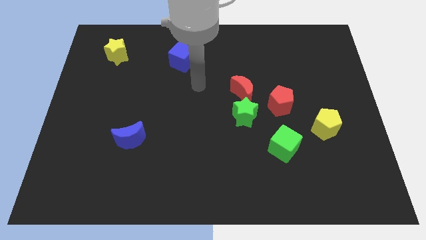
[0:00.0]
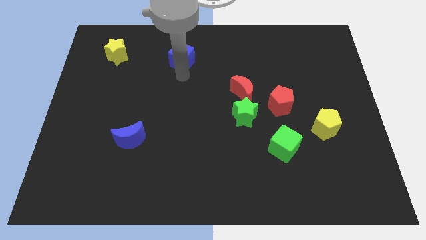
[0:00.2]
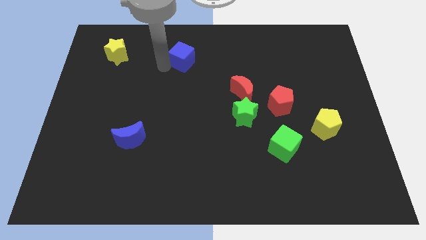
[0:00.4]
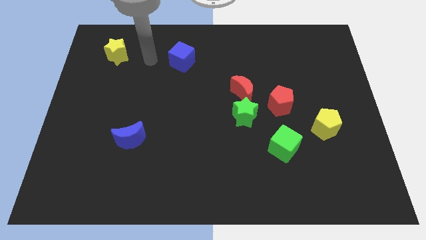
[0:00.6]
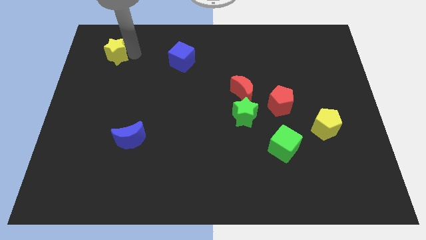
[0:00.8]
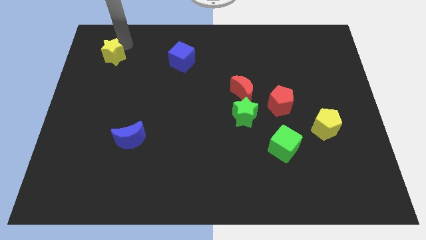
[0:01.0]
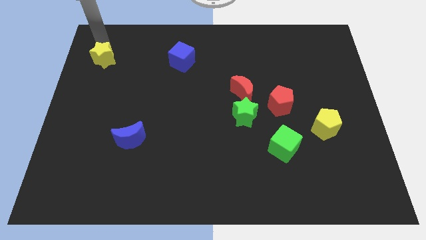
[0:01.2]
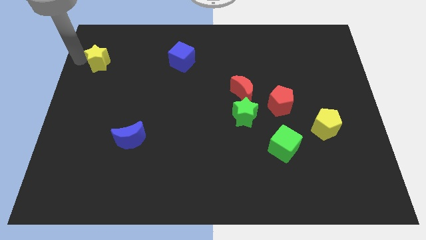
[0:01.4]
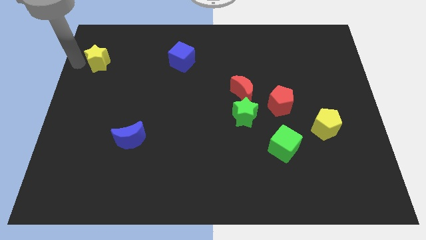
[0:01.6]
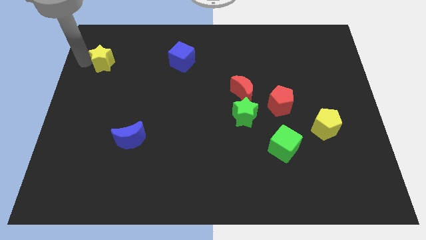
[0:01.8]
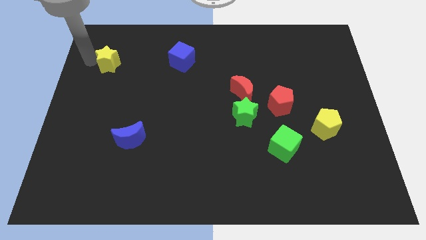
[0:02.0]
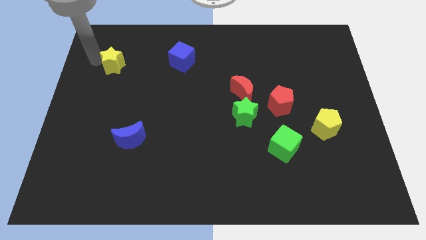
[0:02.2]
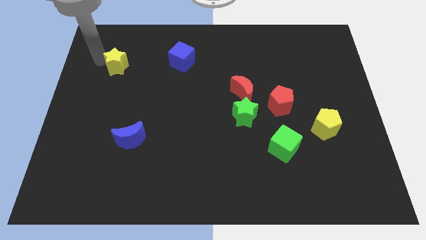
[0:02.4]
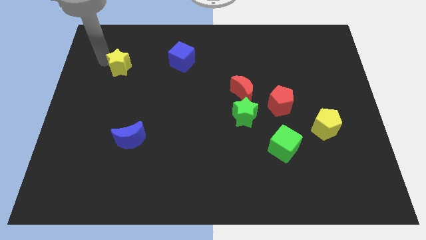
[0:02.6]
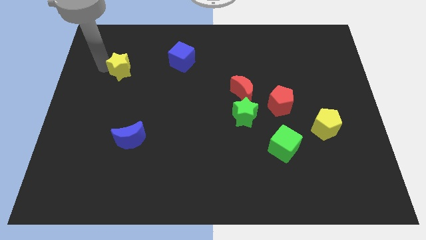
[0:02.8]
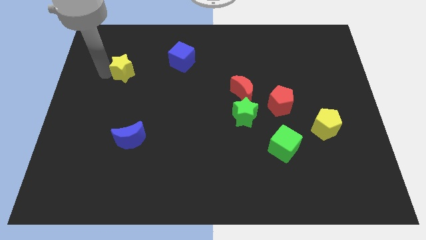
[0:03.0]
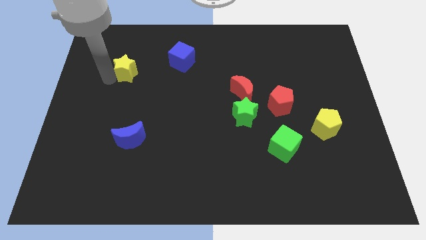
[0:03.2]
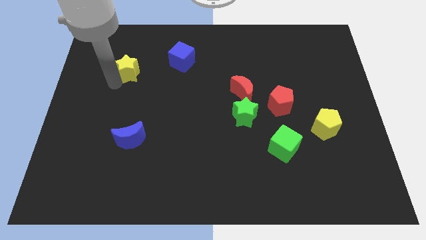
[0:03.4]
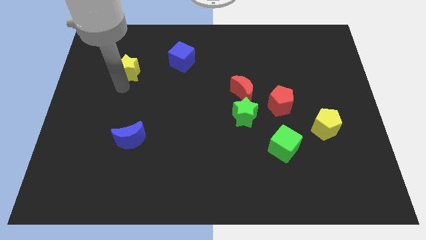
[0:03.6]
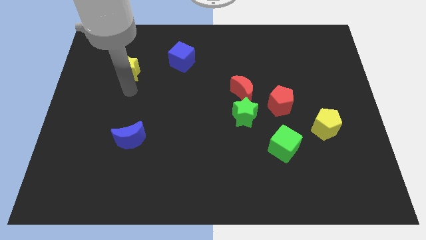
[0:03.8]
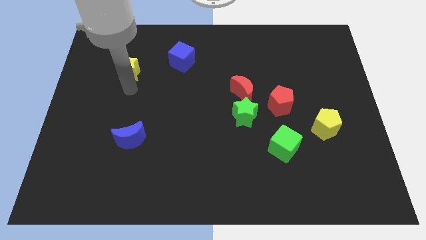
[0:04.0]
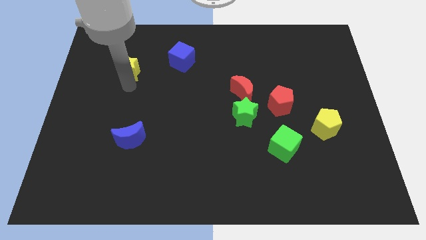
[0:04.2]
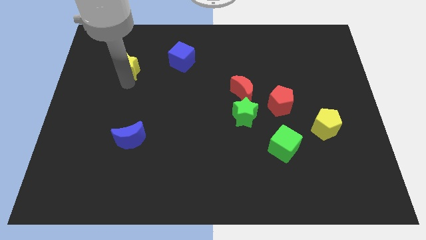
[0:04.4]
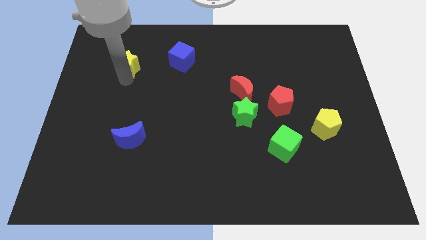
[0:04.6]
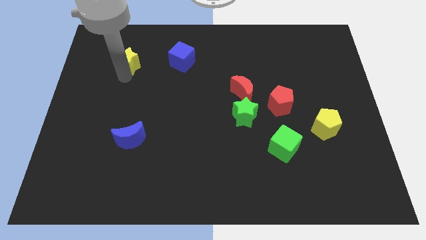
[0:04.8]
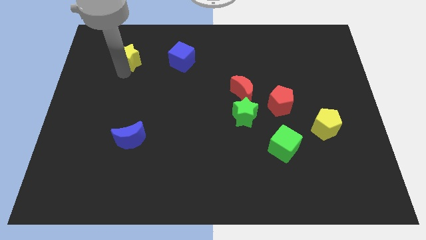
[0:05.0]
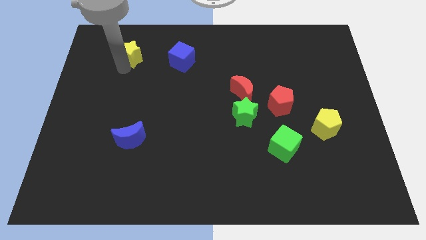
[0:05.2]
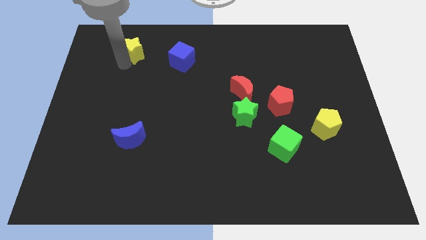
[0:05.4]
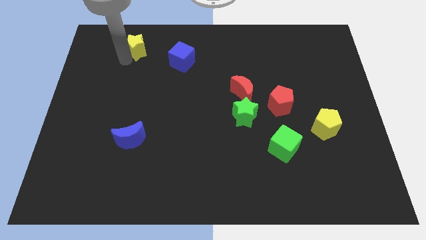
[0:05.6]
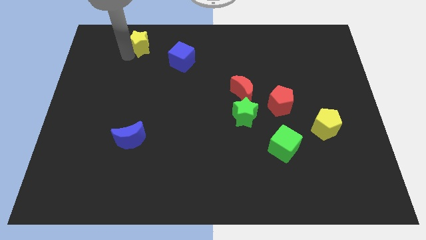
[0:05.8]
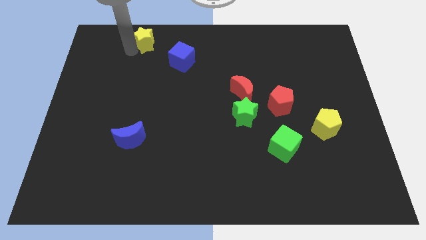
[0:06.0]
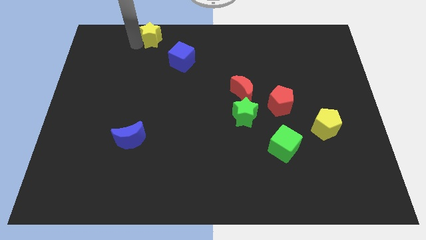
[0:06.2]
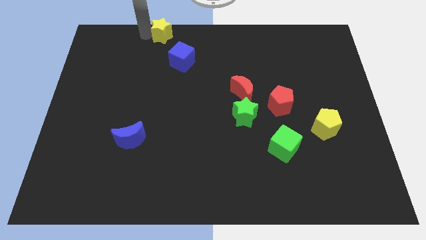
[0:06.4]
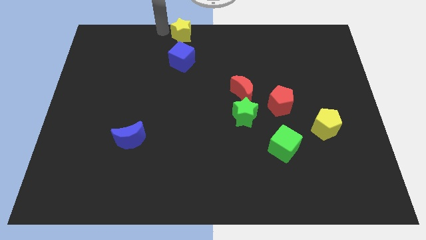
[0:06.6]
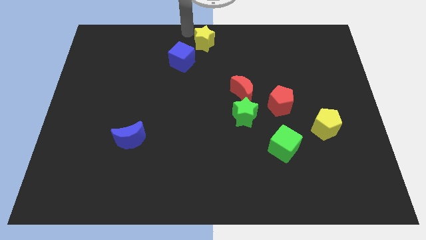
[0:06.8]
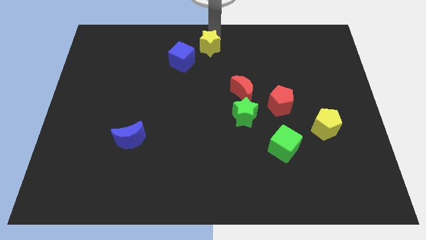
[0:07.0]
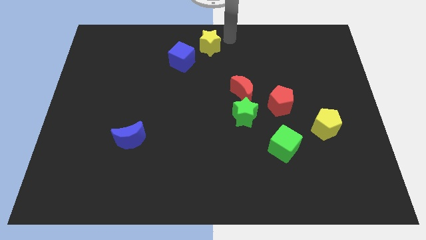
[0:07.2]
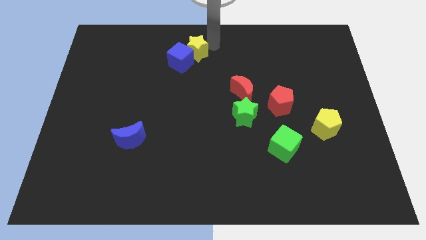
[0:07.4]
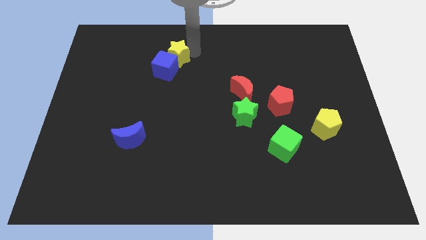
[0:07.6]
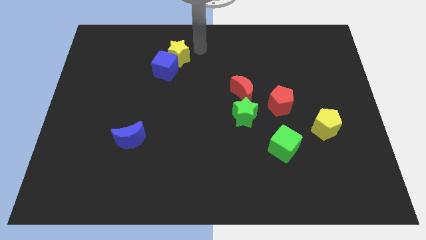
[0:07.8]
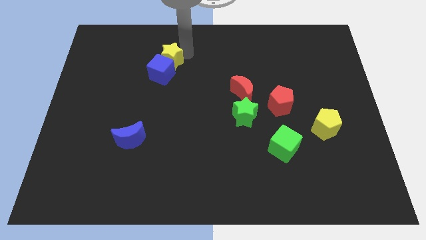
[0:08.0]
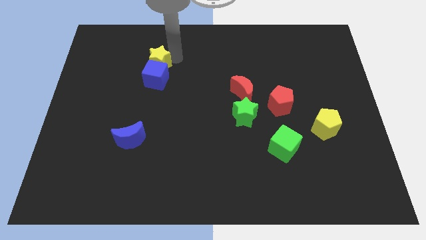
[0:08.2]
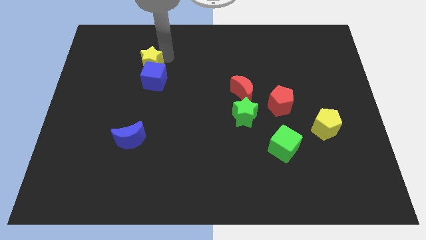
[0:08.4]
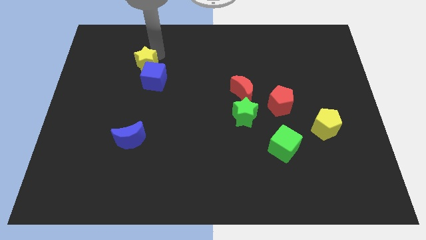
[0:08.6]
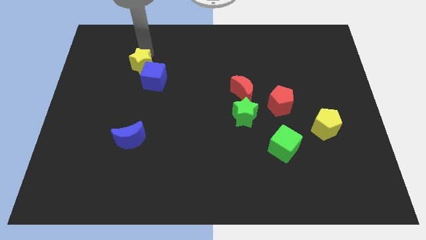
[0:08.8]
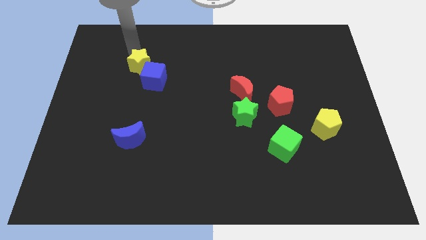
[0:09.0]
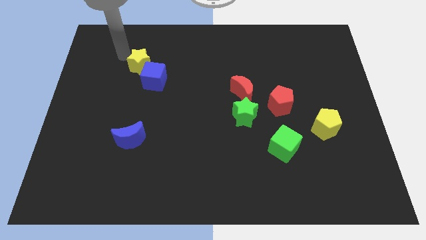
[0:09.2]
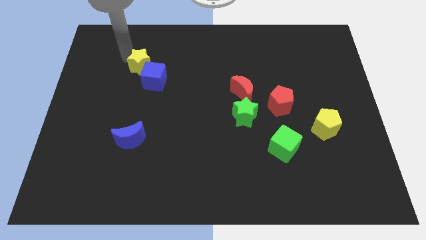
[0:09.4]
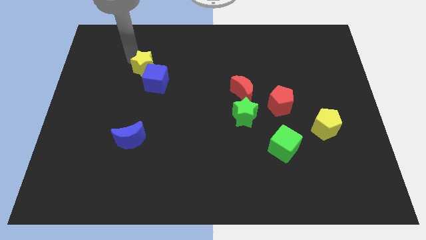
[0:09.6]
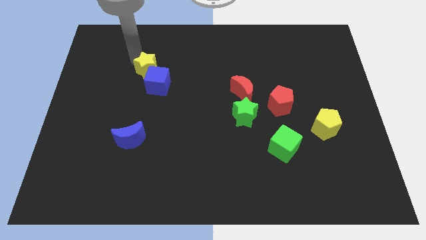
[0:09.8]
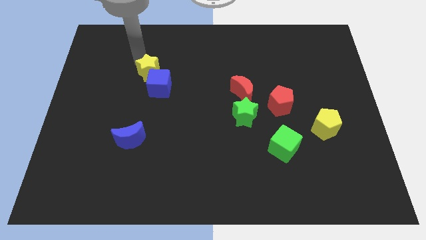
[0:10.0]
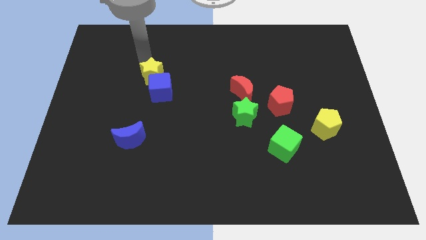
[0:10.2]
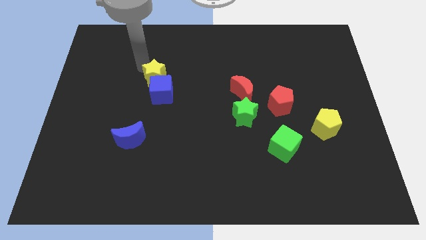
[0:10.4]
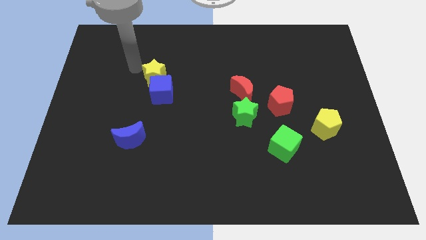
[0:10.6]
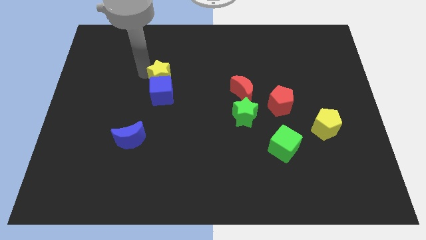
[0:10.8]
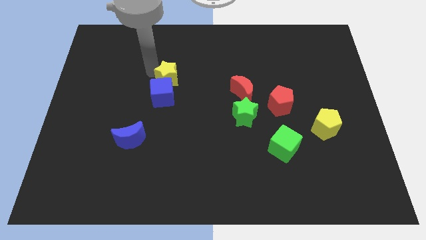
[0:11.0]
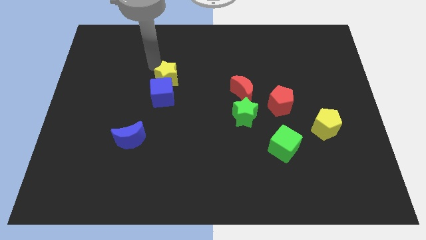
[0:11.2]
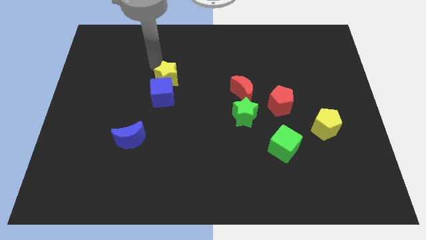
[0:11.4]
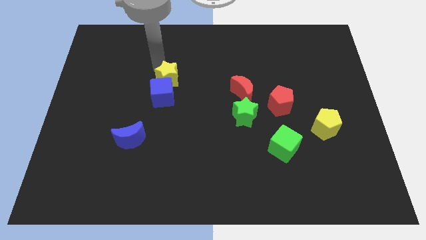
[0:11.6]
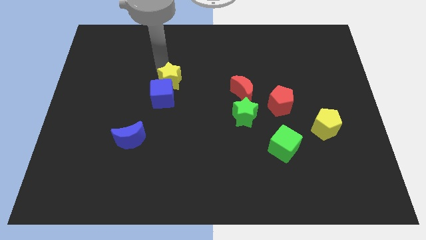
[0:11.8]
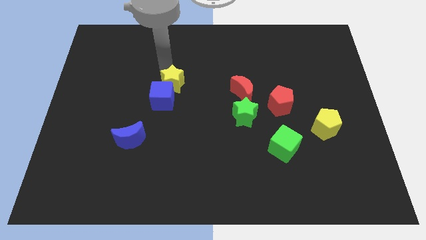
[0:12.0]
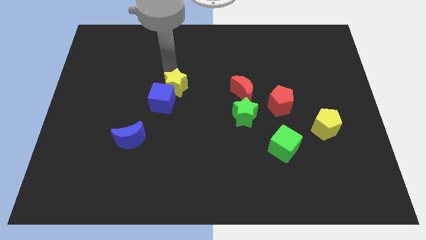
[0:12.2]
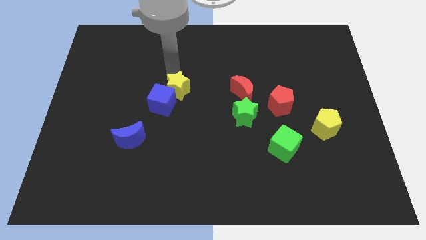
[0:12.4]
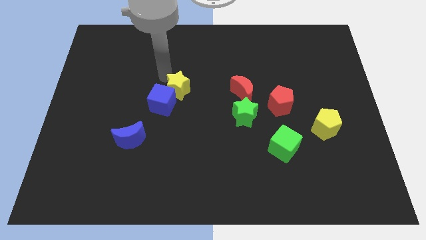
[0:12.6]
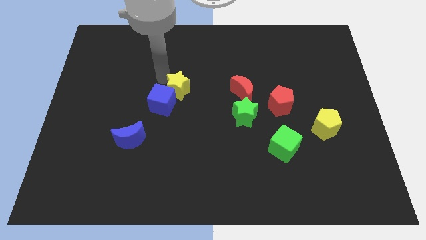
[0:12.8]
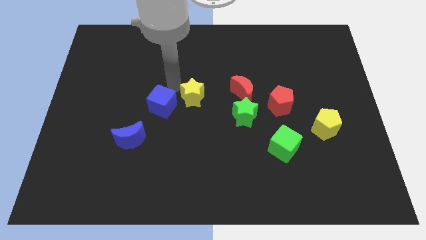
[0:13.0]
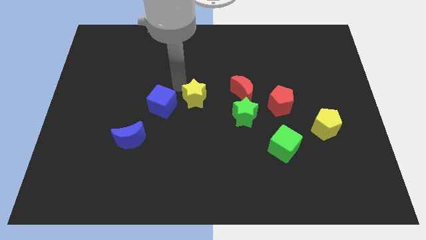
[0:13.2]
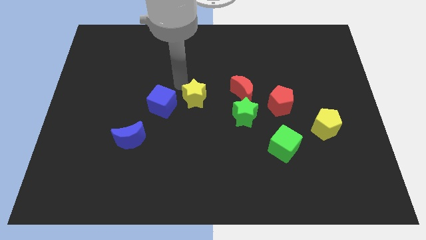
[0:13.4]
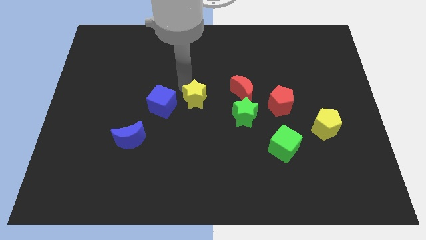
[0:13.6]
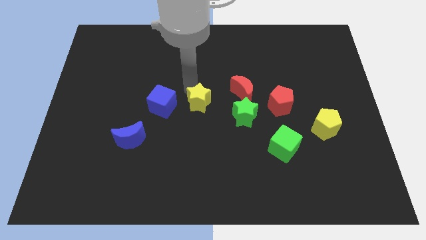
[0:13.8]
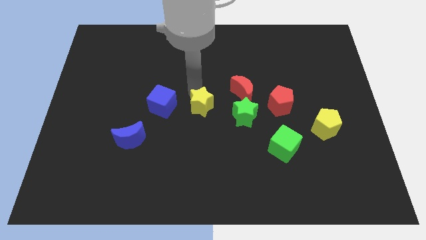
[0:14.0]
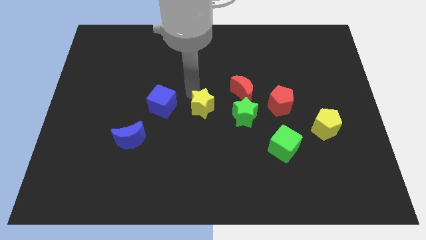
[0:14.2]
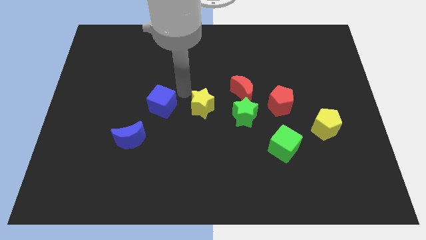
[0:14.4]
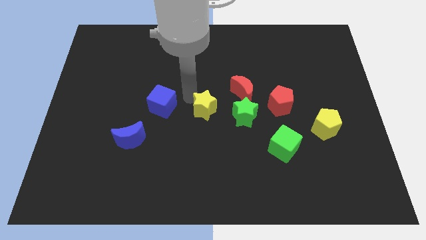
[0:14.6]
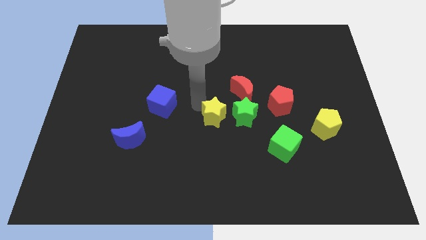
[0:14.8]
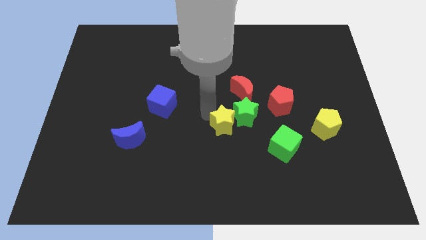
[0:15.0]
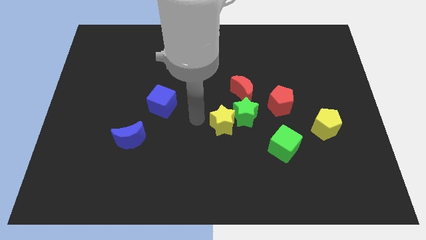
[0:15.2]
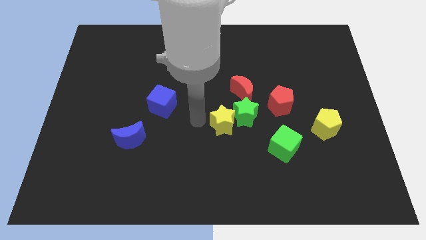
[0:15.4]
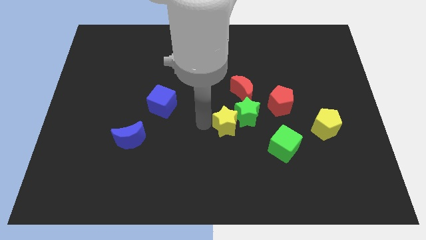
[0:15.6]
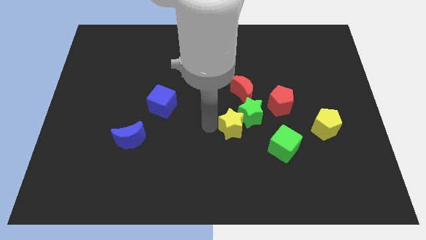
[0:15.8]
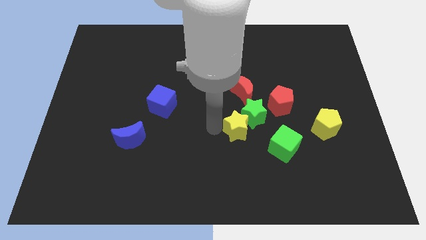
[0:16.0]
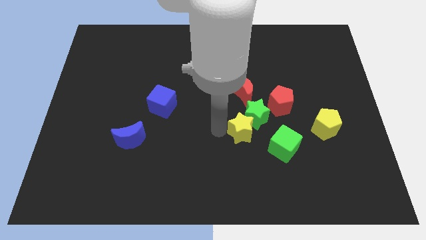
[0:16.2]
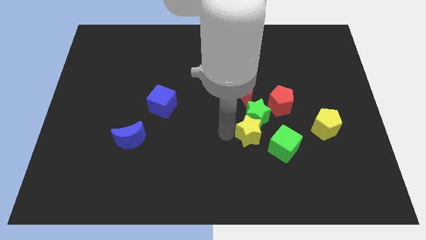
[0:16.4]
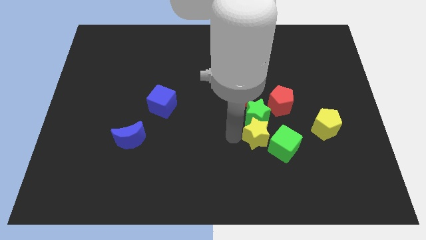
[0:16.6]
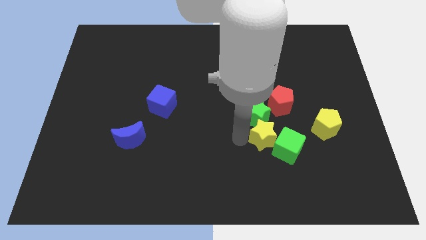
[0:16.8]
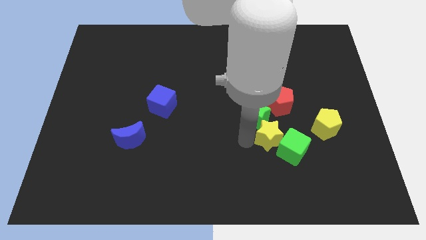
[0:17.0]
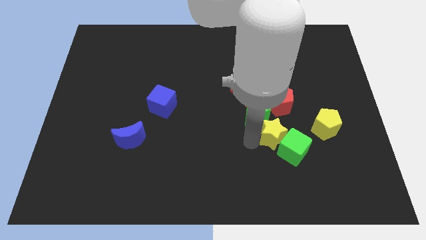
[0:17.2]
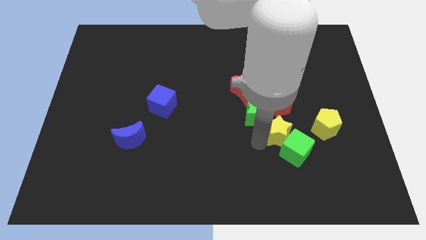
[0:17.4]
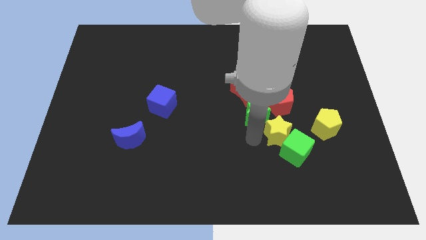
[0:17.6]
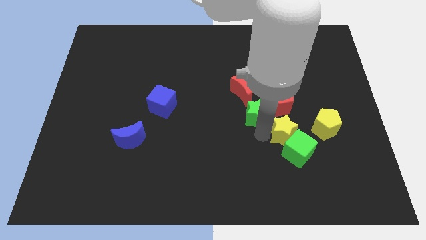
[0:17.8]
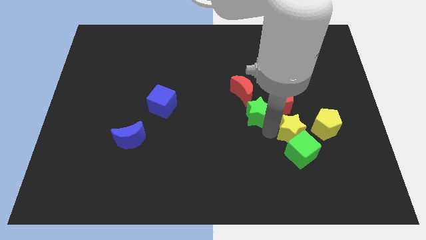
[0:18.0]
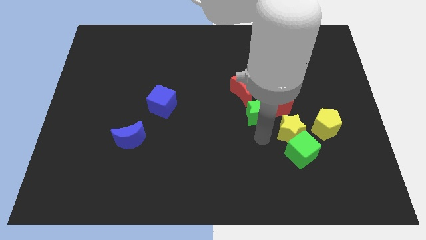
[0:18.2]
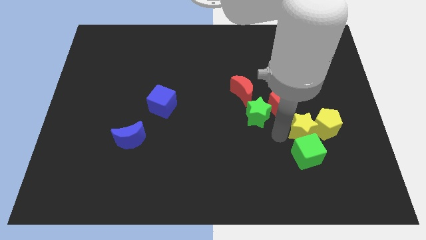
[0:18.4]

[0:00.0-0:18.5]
slide the yellow star to the yellow pentagon
